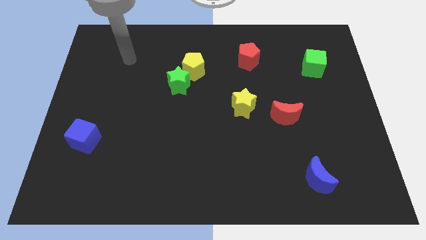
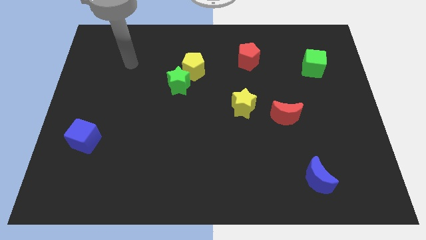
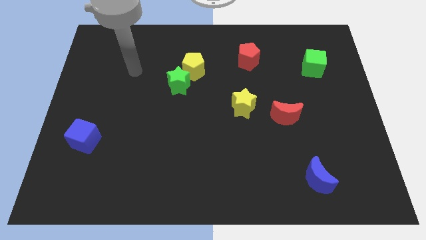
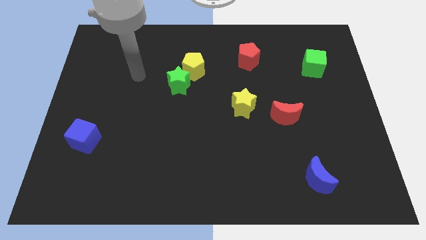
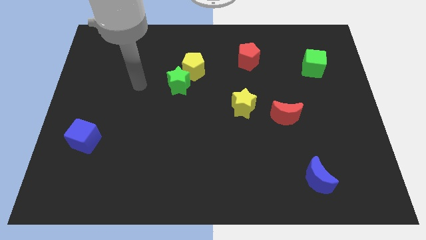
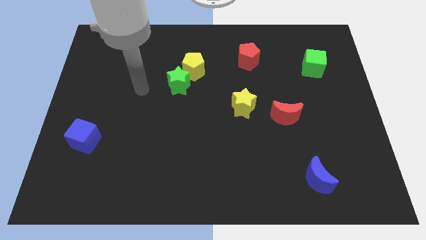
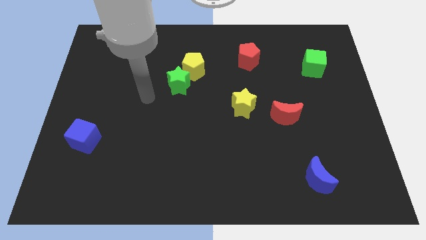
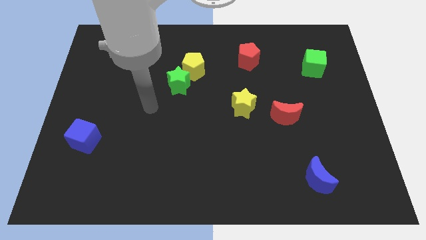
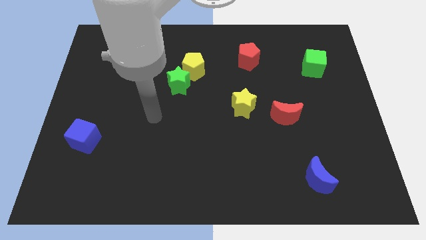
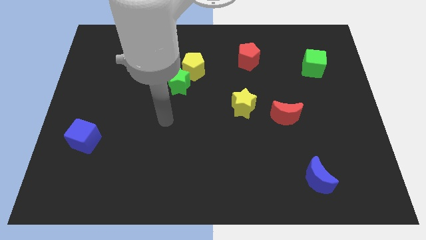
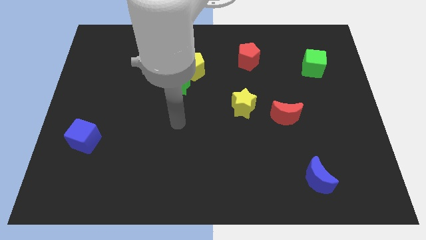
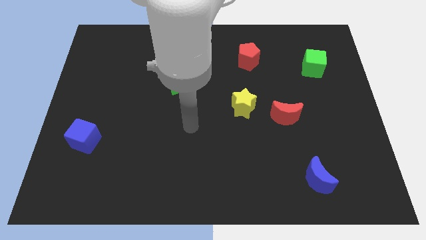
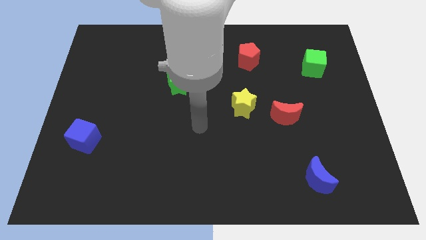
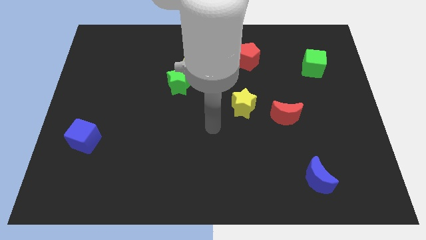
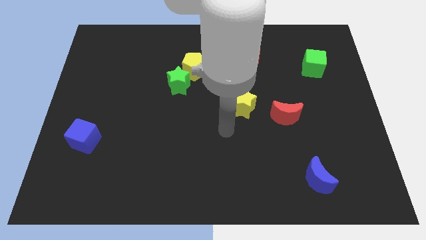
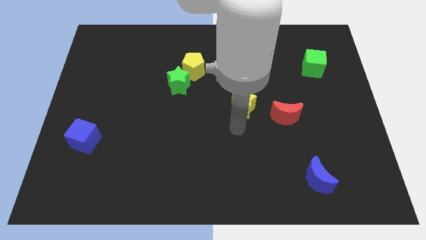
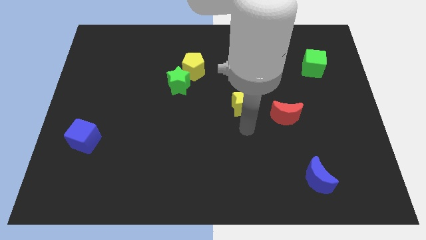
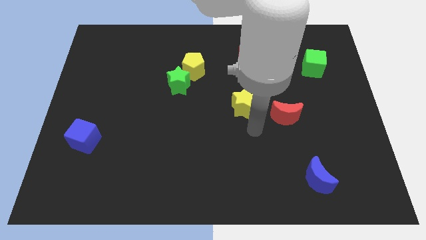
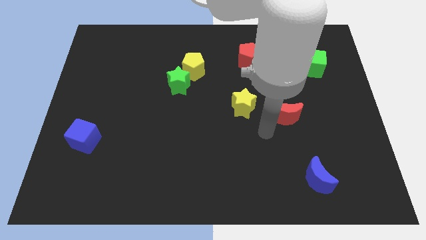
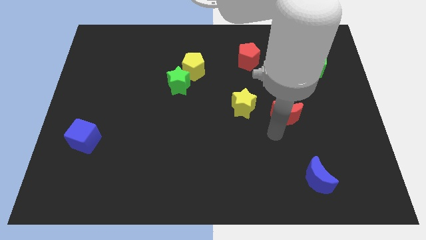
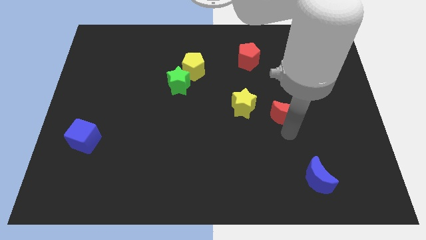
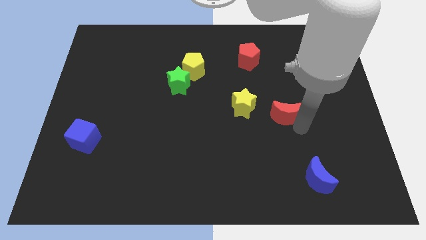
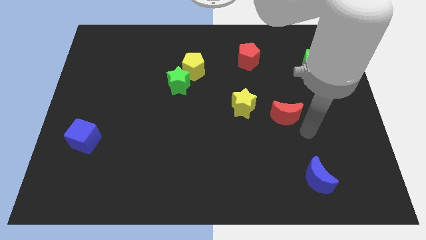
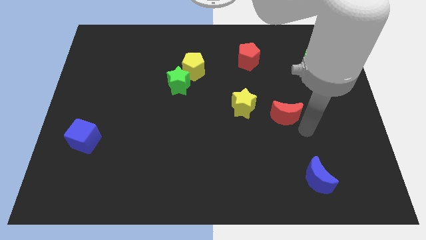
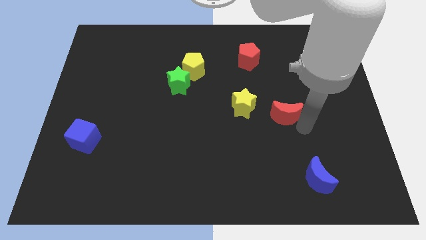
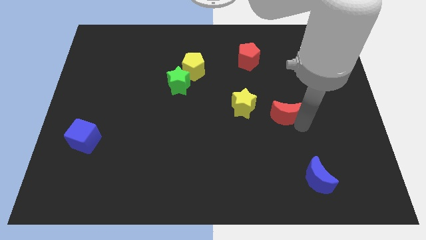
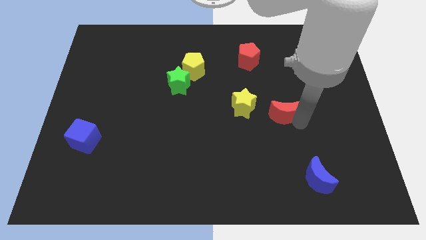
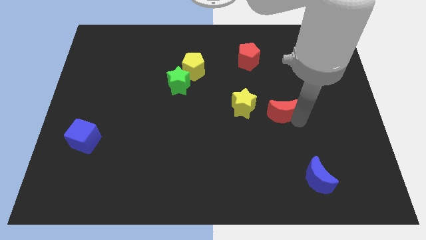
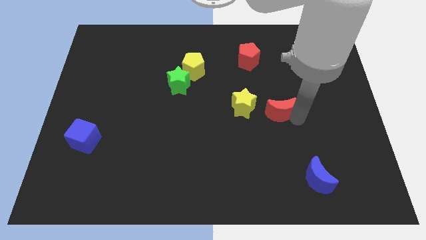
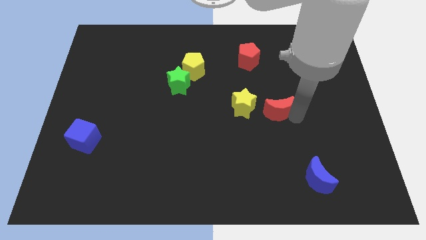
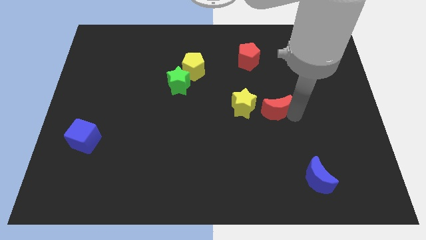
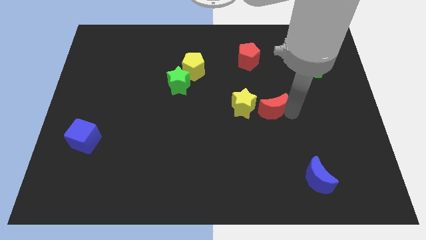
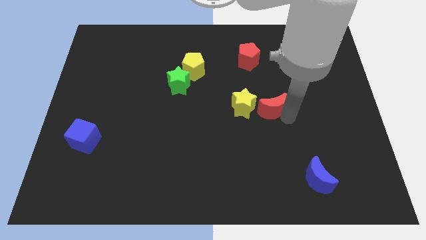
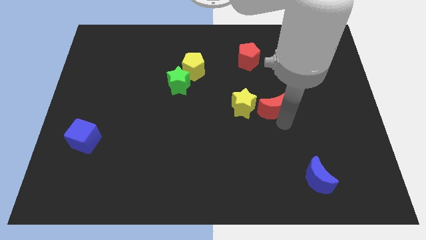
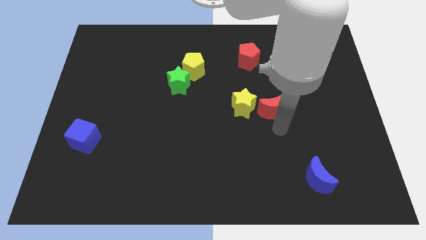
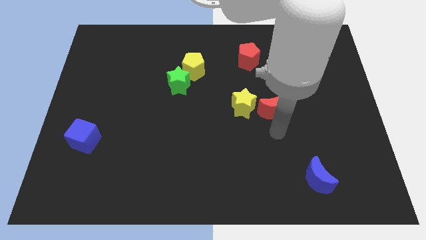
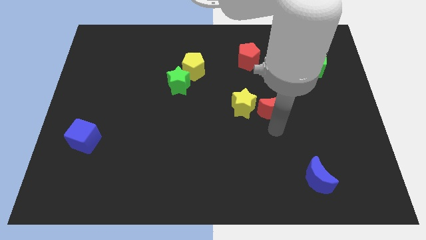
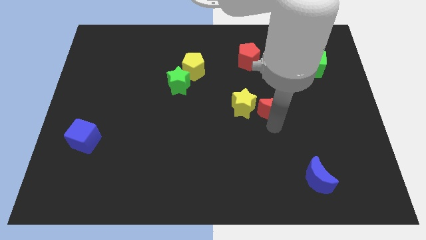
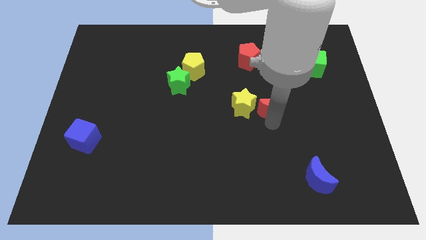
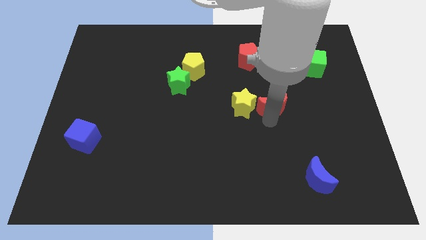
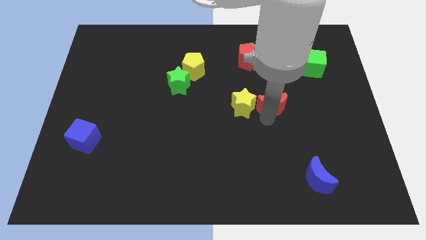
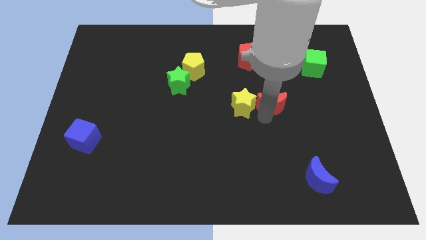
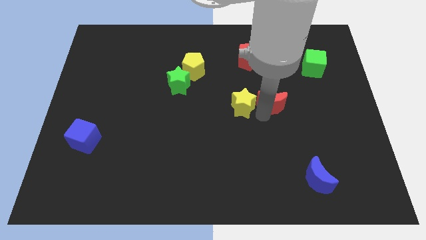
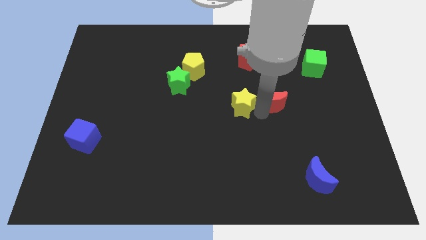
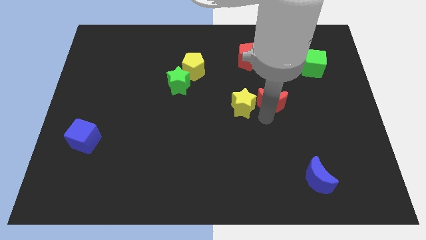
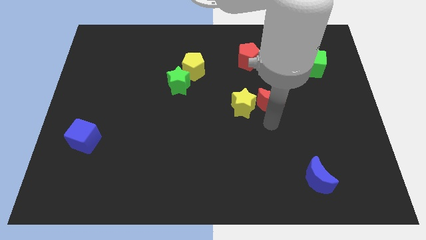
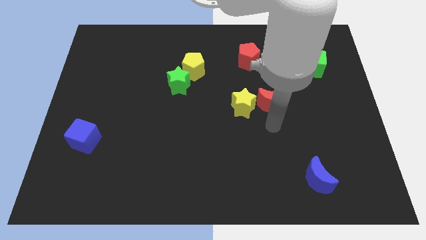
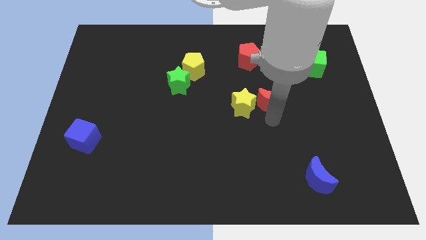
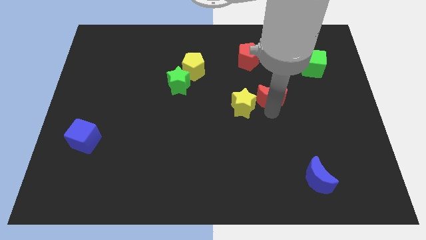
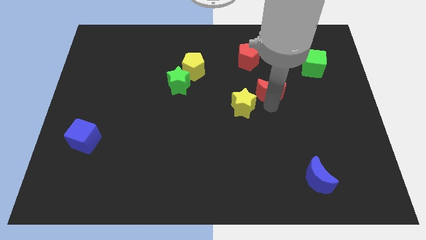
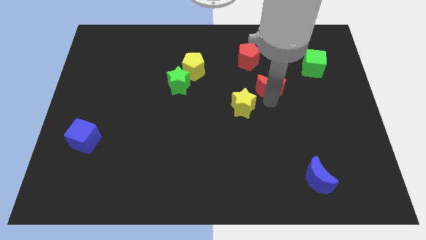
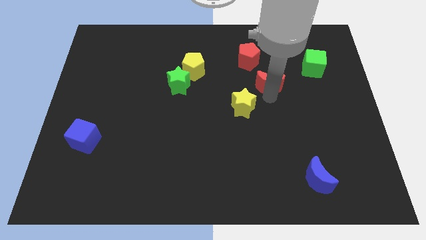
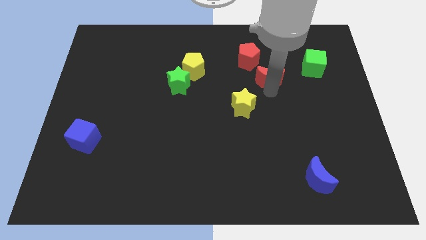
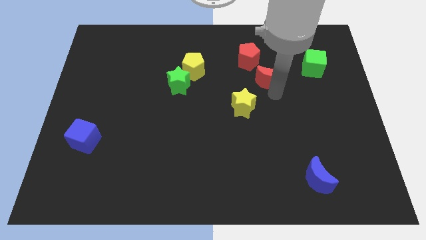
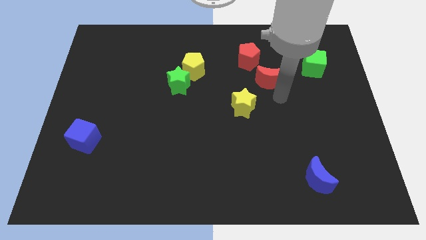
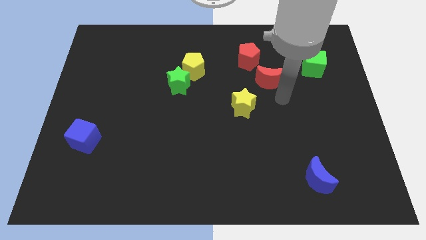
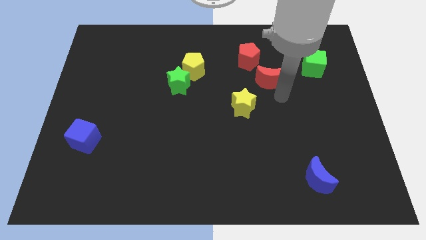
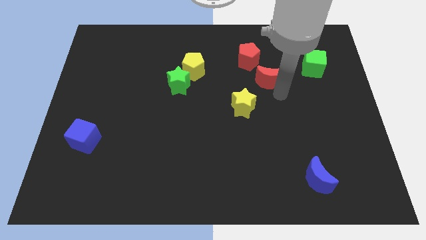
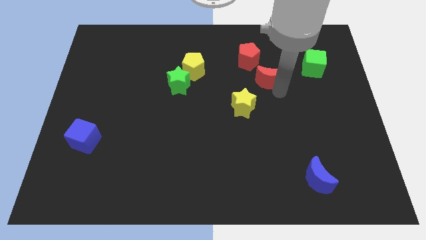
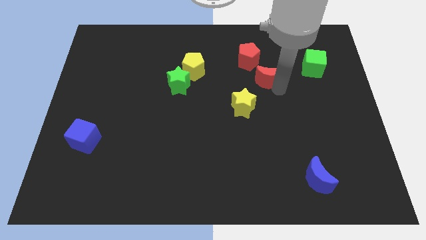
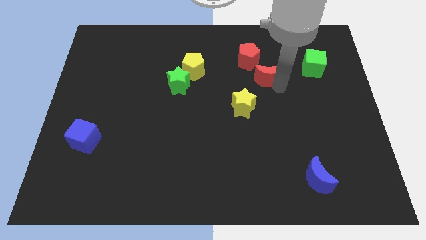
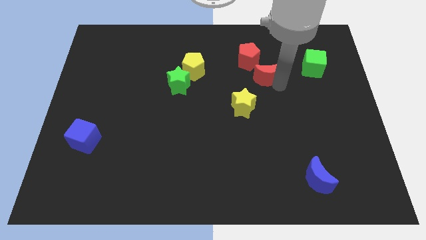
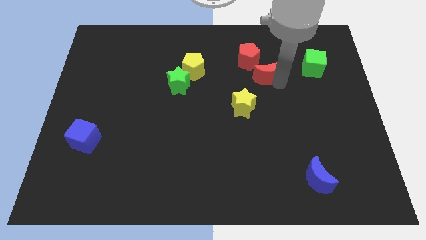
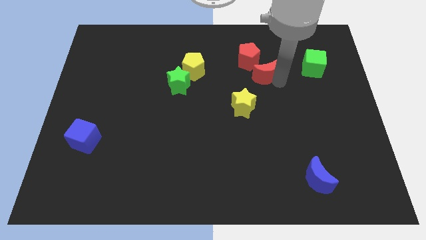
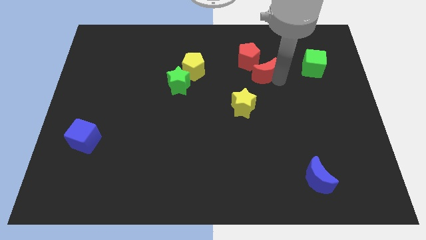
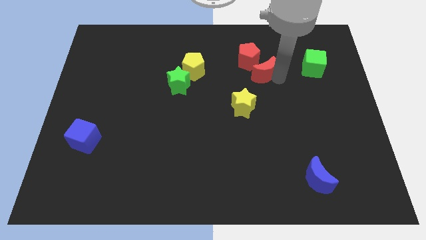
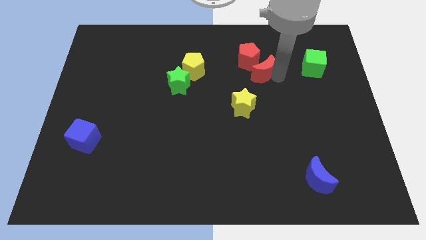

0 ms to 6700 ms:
put the red moon close to the red pentagon
